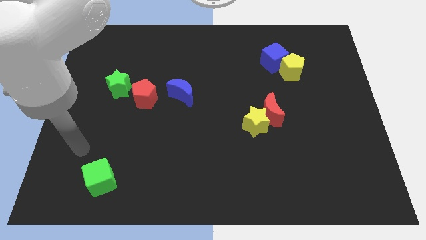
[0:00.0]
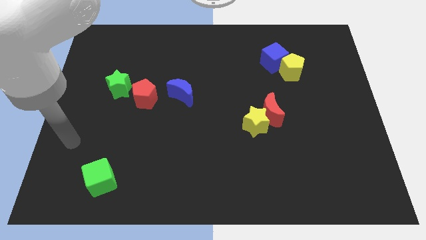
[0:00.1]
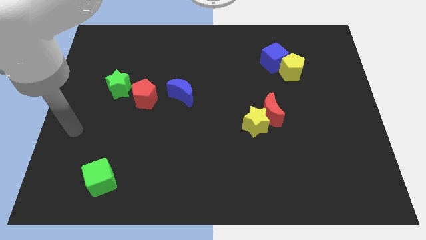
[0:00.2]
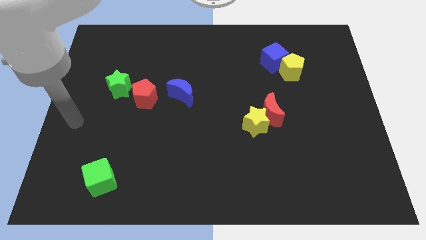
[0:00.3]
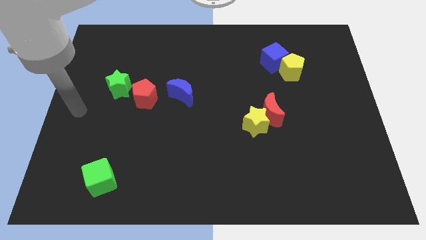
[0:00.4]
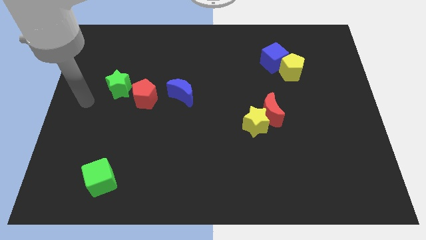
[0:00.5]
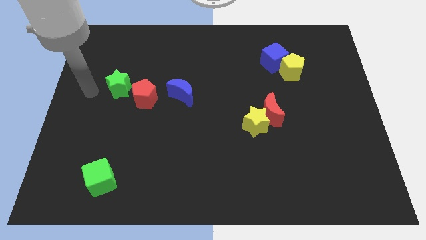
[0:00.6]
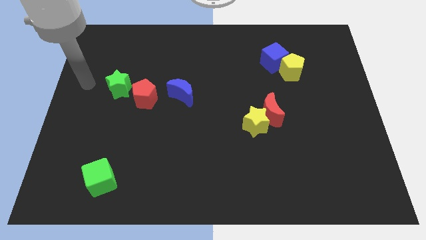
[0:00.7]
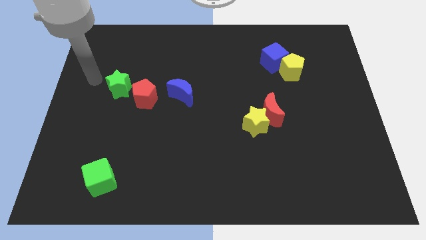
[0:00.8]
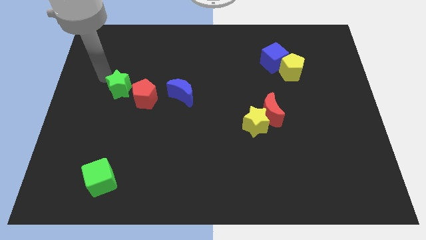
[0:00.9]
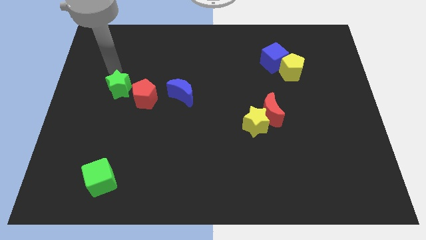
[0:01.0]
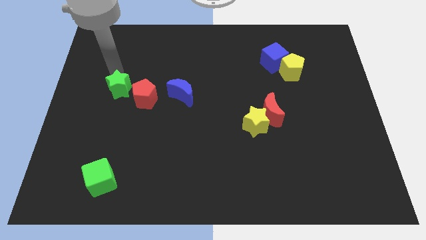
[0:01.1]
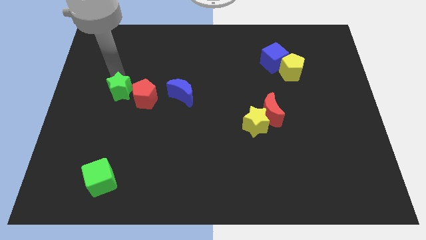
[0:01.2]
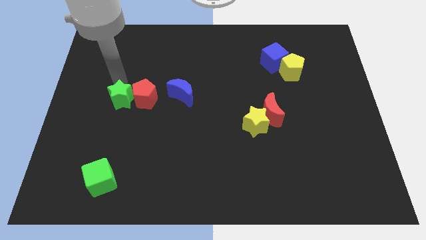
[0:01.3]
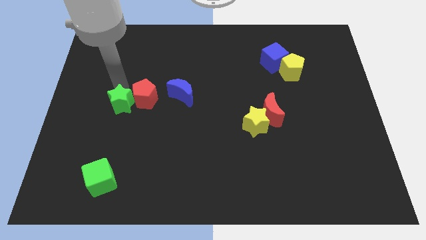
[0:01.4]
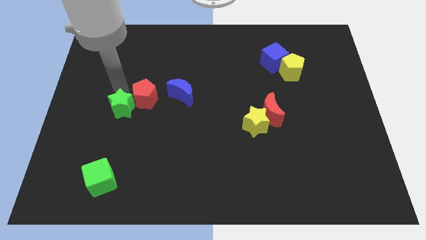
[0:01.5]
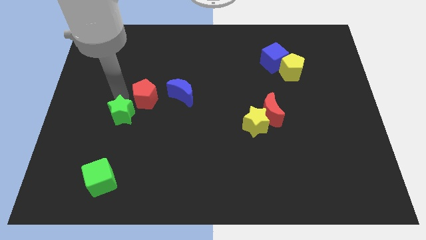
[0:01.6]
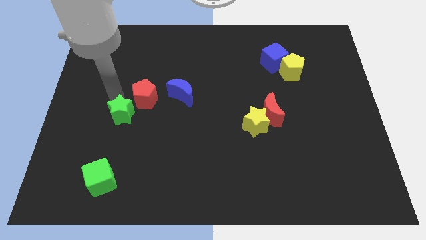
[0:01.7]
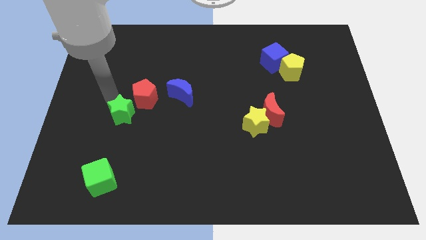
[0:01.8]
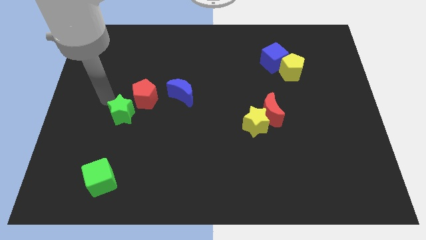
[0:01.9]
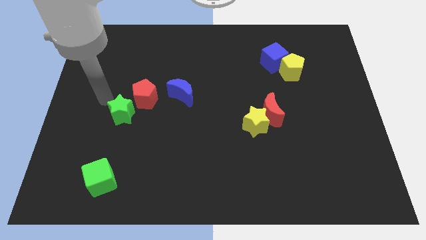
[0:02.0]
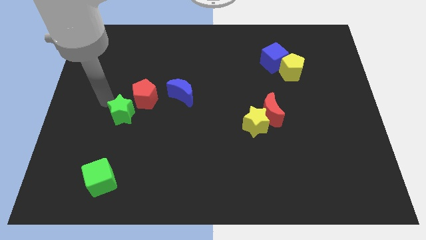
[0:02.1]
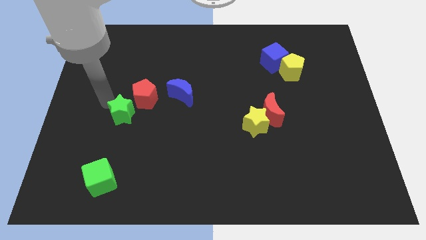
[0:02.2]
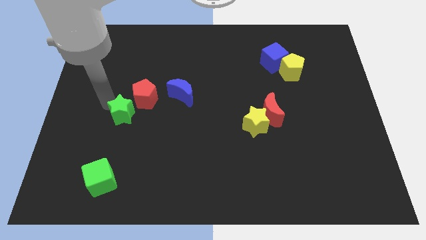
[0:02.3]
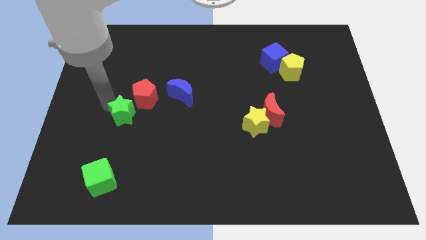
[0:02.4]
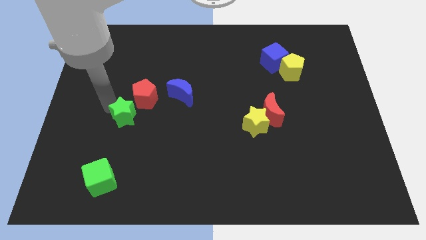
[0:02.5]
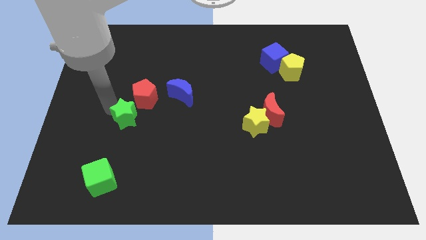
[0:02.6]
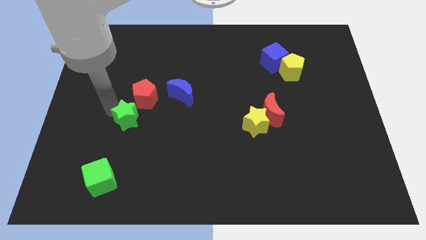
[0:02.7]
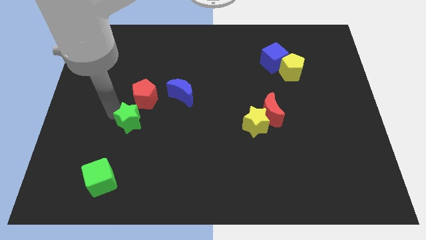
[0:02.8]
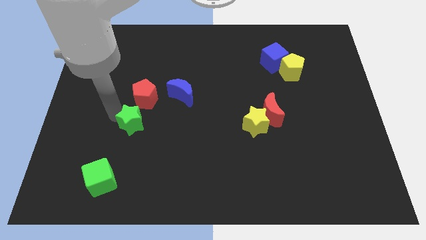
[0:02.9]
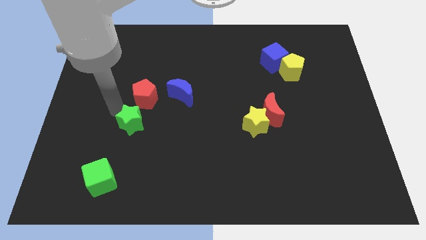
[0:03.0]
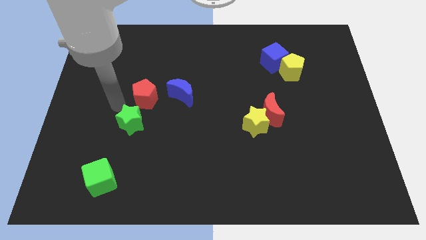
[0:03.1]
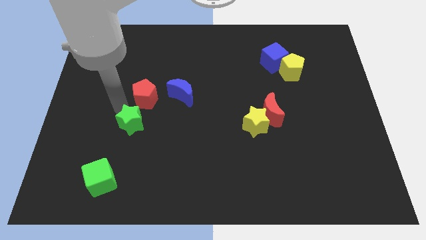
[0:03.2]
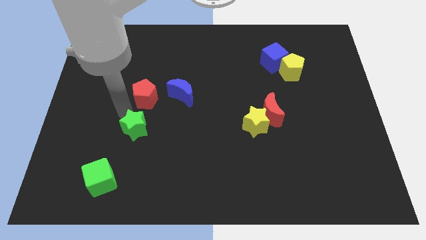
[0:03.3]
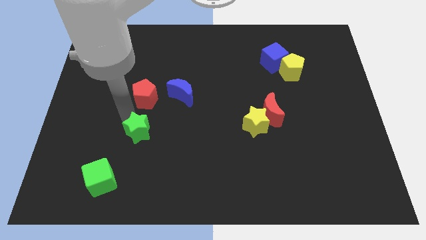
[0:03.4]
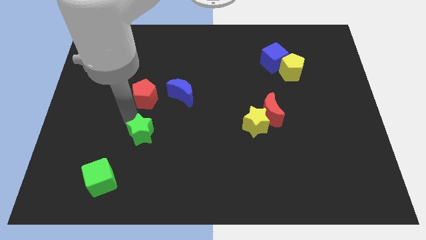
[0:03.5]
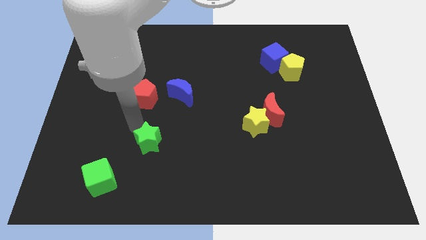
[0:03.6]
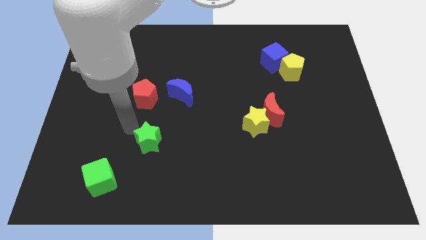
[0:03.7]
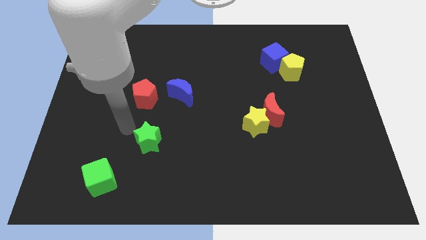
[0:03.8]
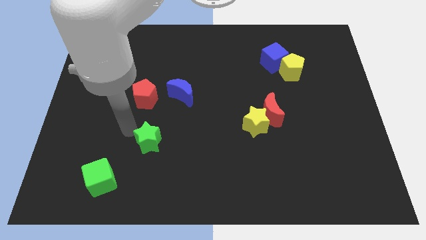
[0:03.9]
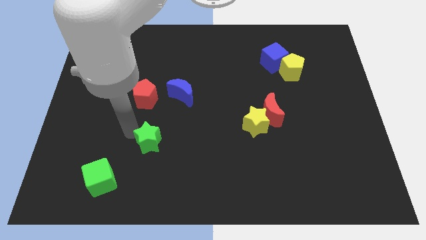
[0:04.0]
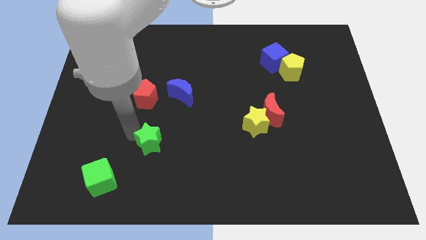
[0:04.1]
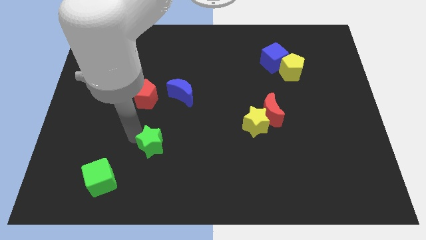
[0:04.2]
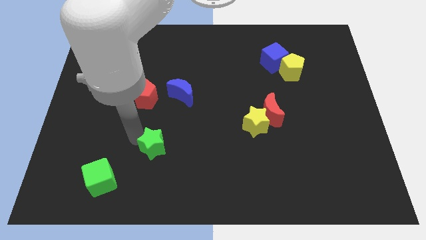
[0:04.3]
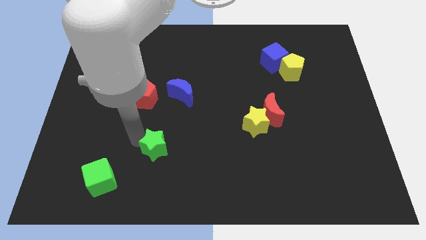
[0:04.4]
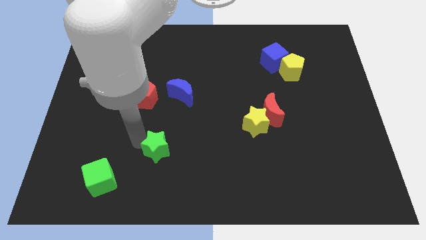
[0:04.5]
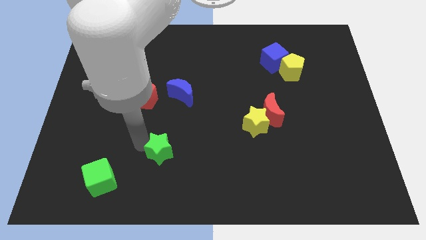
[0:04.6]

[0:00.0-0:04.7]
push the green star downwards and then to the right

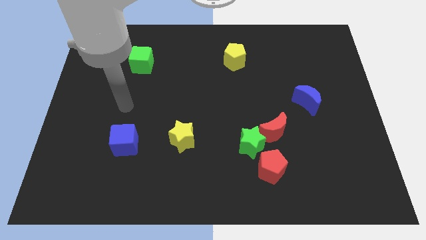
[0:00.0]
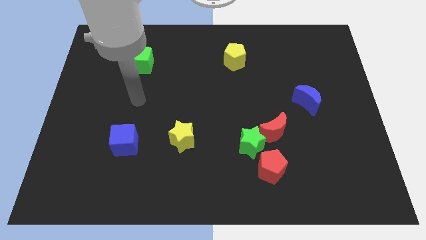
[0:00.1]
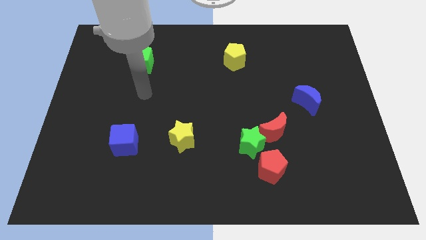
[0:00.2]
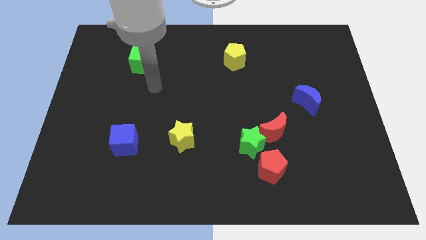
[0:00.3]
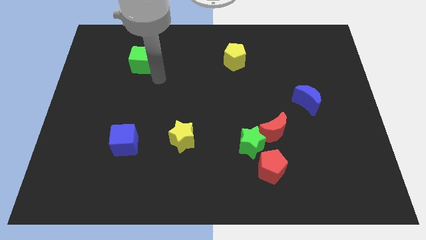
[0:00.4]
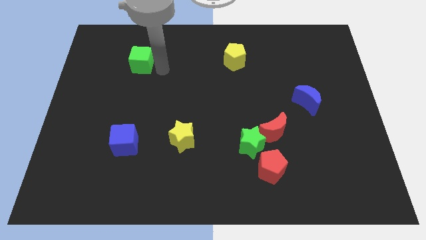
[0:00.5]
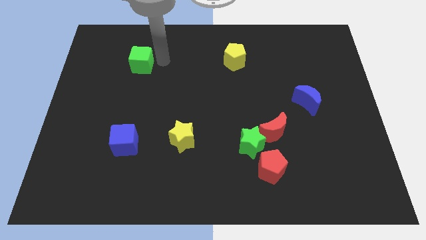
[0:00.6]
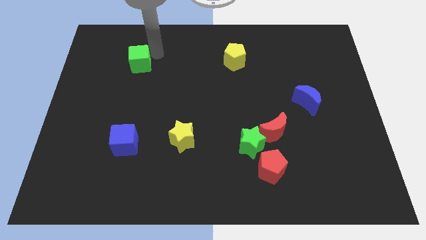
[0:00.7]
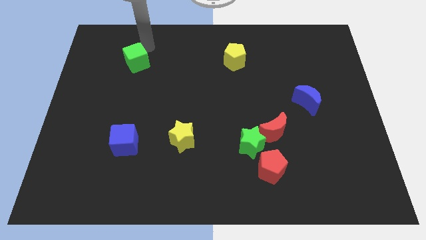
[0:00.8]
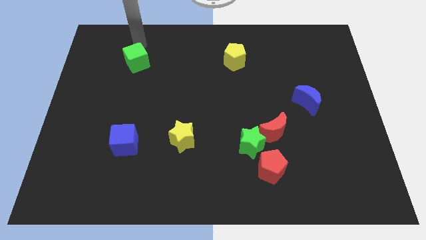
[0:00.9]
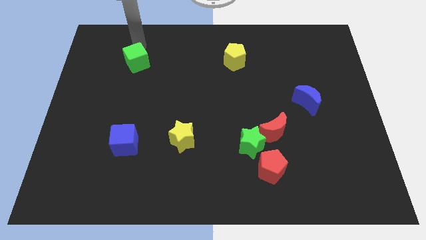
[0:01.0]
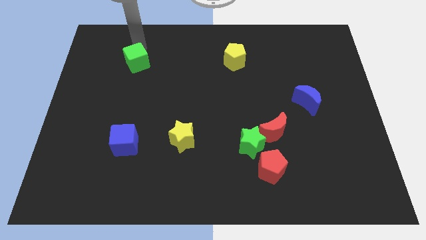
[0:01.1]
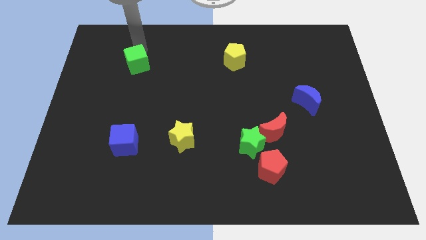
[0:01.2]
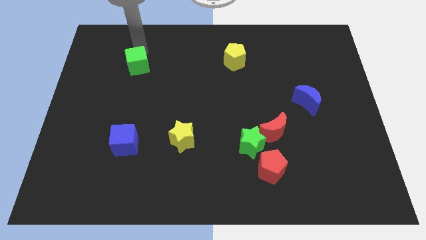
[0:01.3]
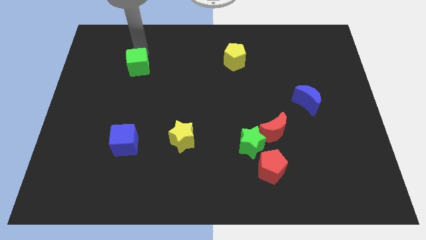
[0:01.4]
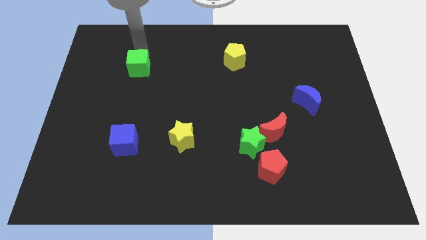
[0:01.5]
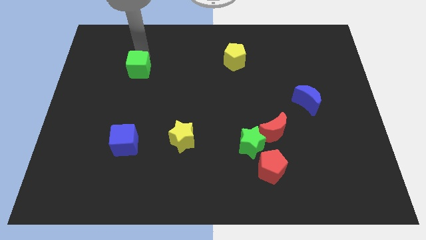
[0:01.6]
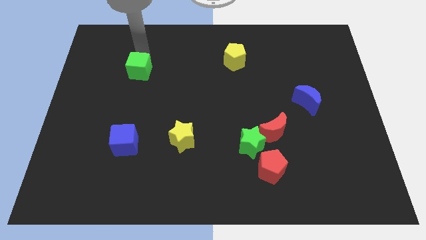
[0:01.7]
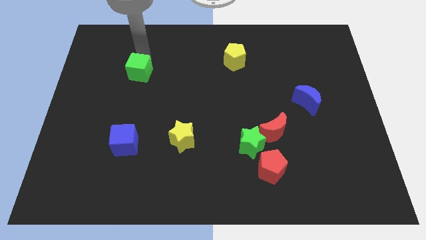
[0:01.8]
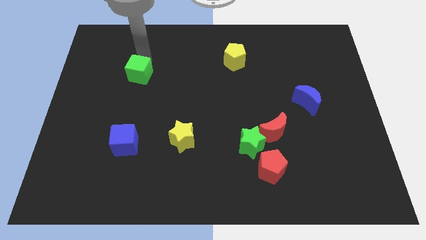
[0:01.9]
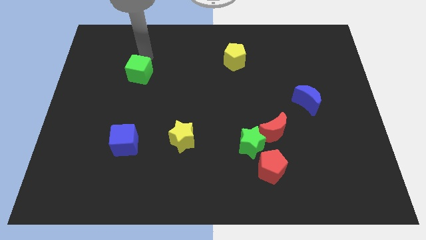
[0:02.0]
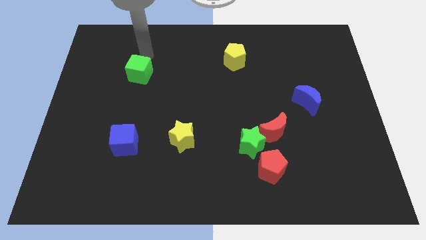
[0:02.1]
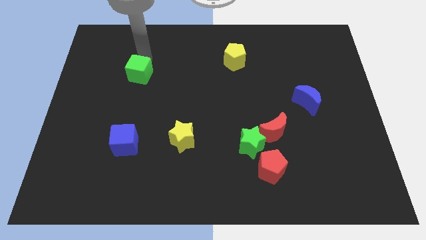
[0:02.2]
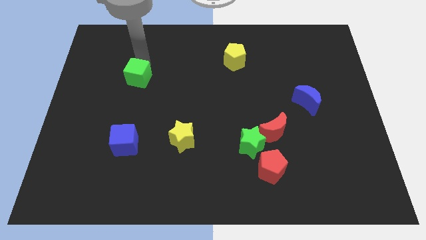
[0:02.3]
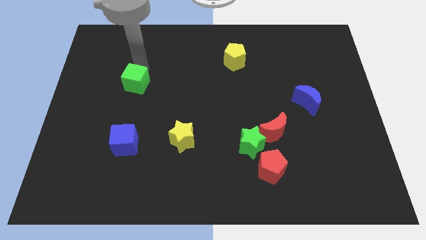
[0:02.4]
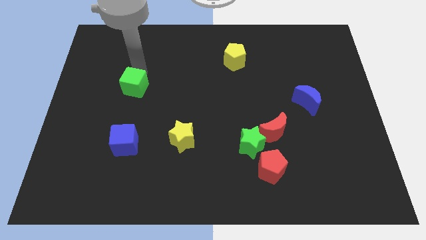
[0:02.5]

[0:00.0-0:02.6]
push the green cube down a little

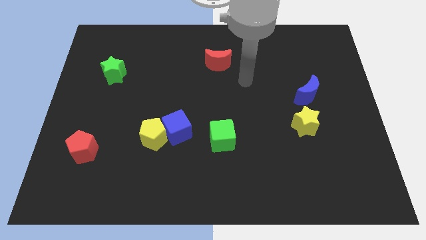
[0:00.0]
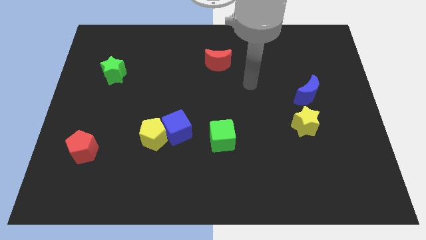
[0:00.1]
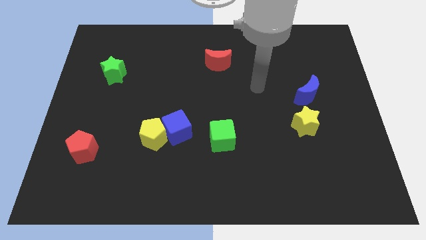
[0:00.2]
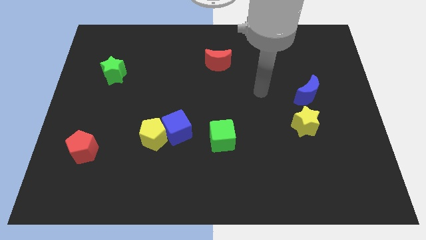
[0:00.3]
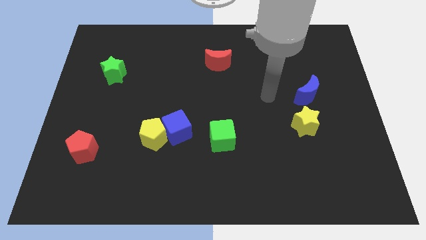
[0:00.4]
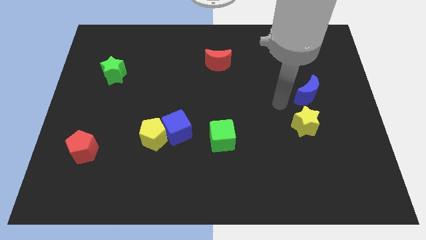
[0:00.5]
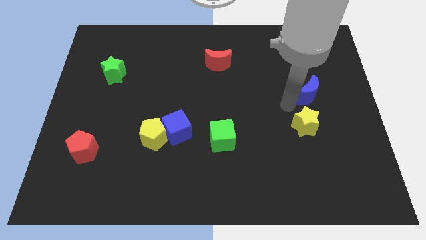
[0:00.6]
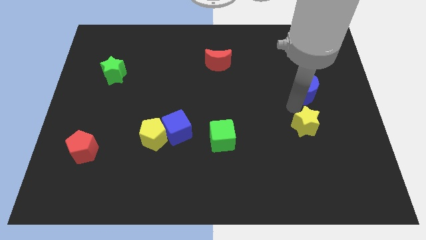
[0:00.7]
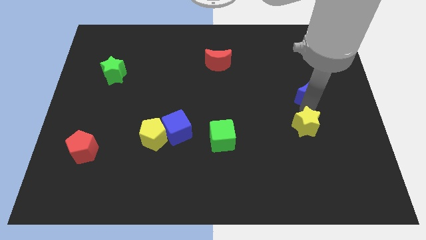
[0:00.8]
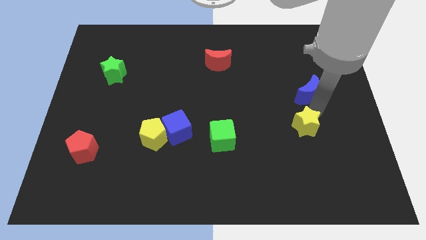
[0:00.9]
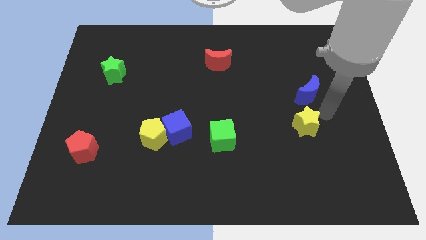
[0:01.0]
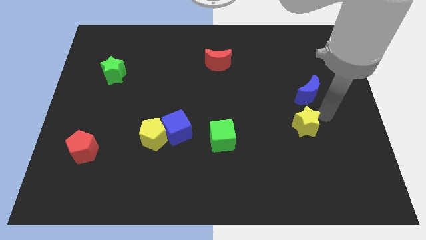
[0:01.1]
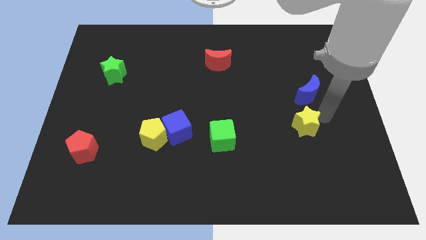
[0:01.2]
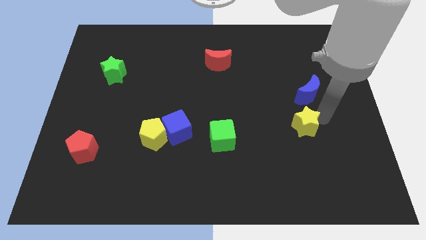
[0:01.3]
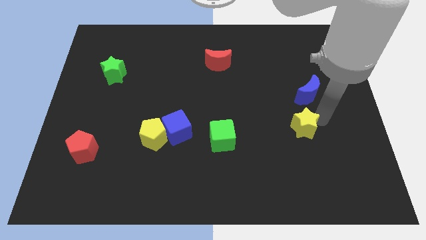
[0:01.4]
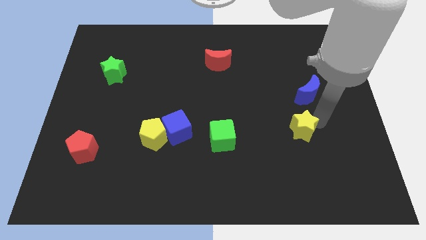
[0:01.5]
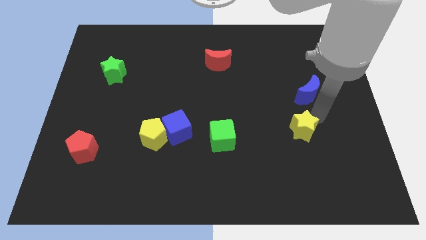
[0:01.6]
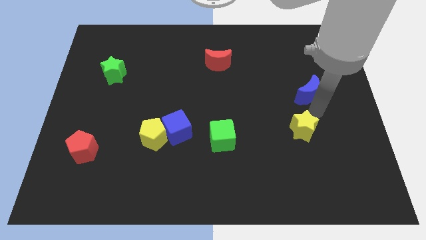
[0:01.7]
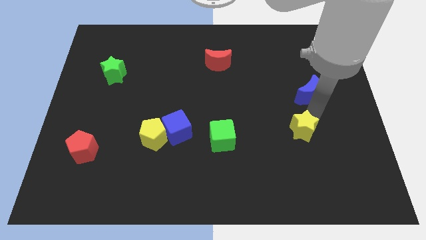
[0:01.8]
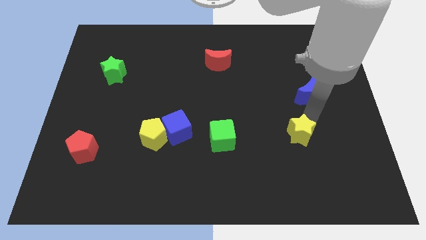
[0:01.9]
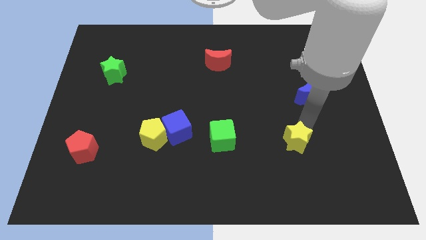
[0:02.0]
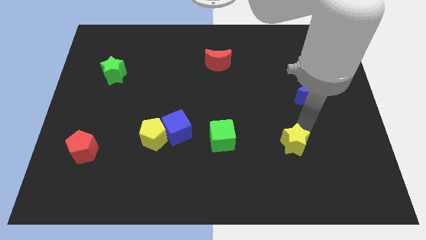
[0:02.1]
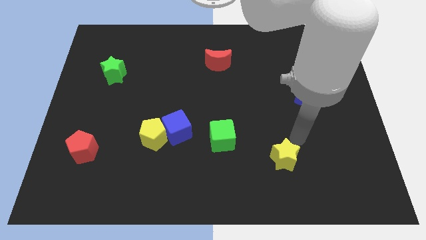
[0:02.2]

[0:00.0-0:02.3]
move the yellow star down and then left a little
